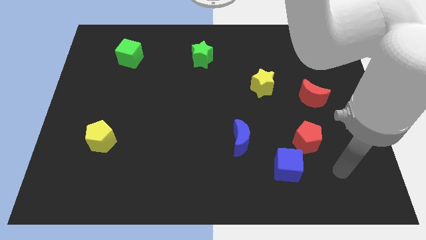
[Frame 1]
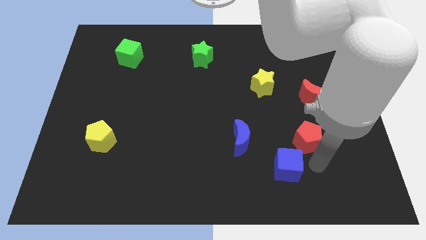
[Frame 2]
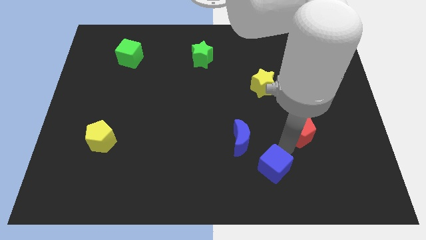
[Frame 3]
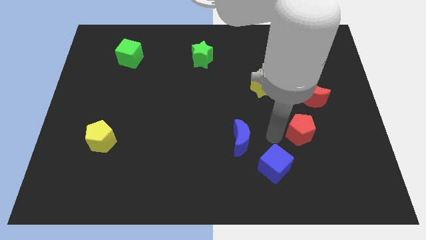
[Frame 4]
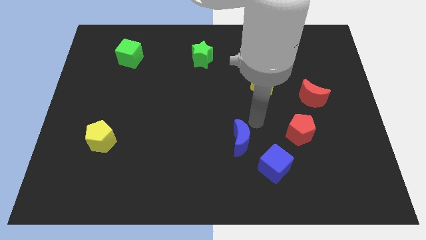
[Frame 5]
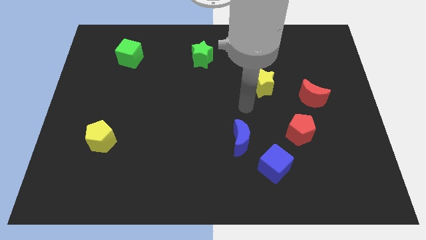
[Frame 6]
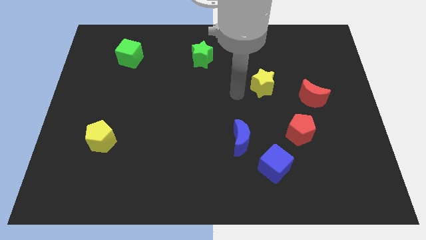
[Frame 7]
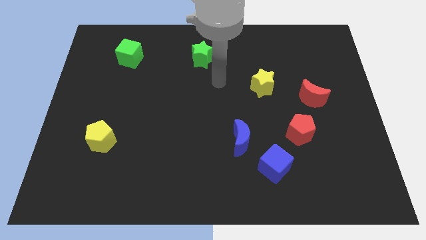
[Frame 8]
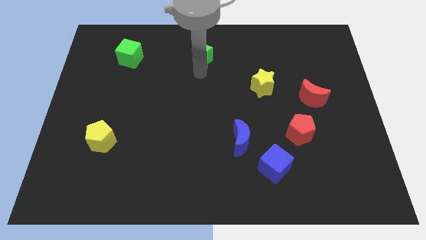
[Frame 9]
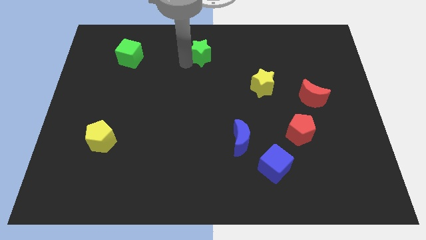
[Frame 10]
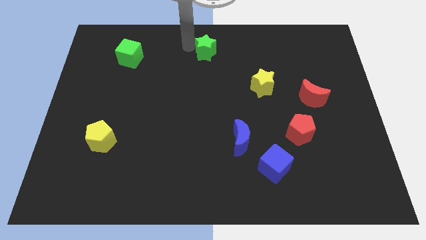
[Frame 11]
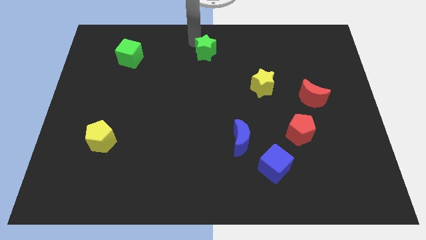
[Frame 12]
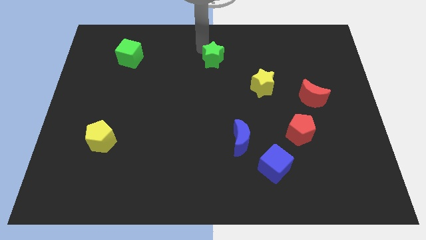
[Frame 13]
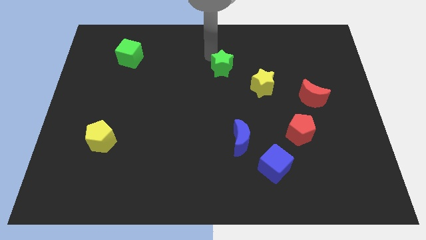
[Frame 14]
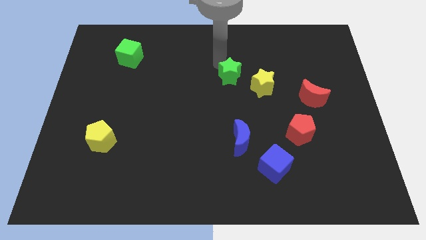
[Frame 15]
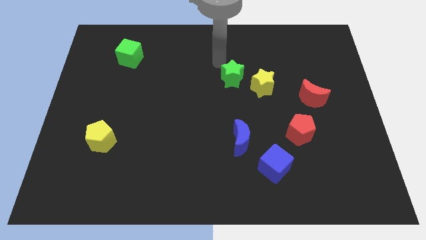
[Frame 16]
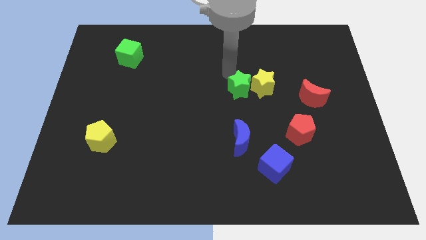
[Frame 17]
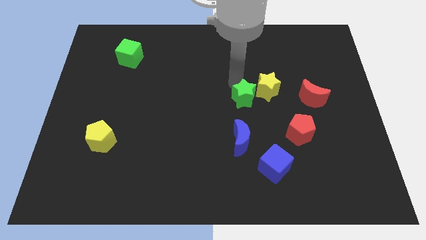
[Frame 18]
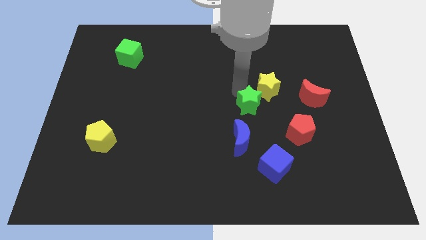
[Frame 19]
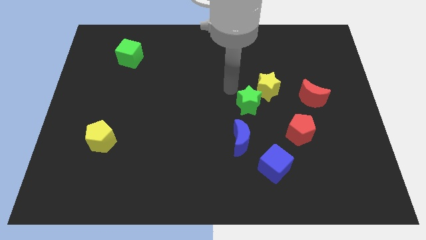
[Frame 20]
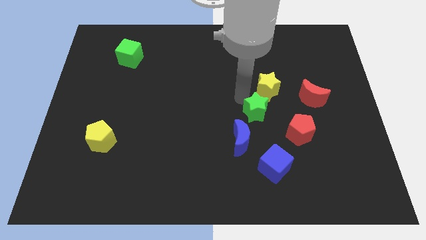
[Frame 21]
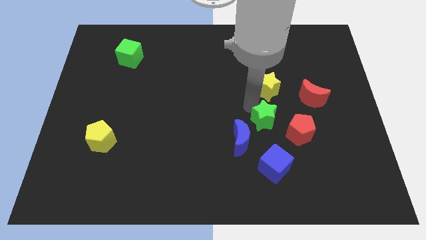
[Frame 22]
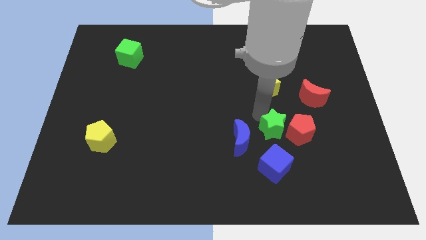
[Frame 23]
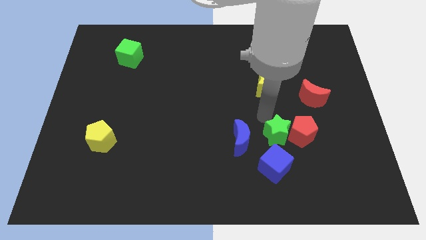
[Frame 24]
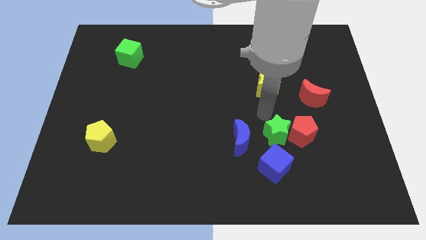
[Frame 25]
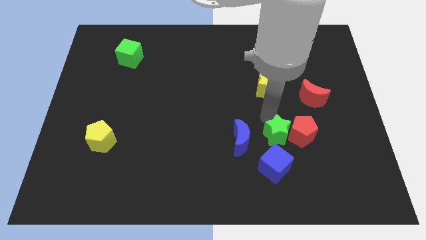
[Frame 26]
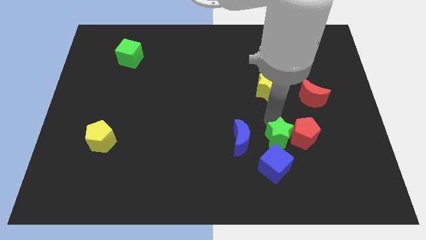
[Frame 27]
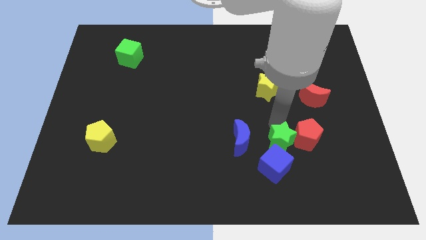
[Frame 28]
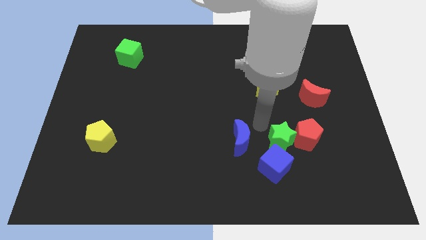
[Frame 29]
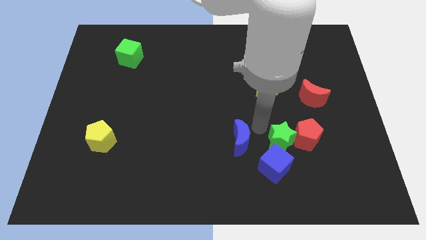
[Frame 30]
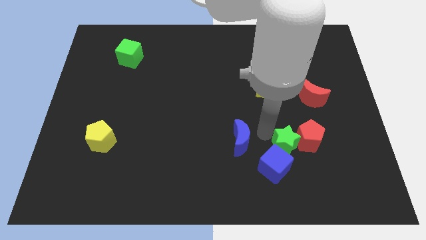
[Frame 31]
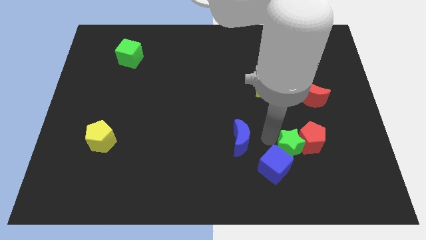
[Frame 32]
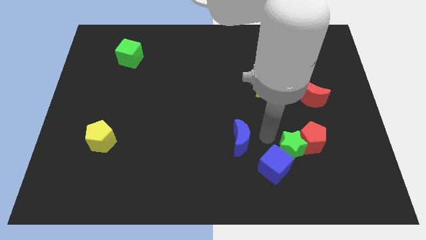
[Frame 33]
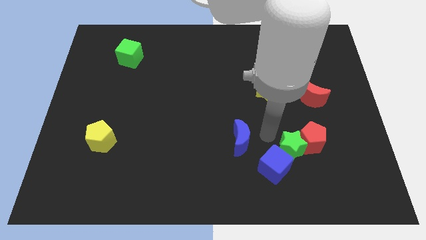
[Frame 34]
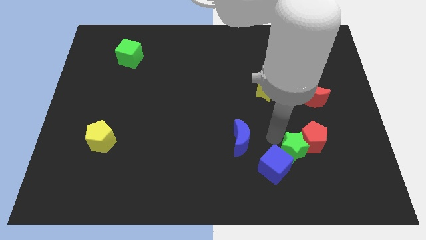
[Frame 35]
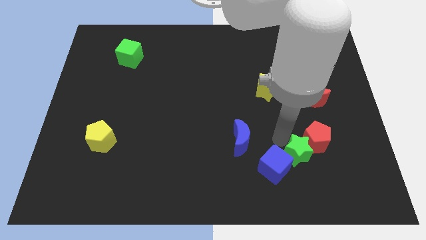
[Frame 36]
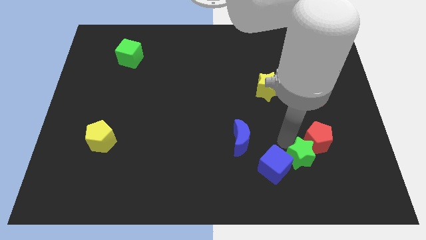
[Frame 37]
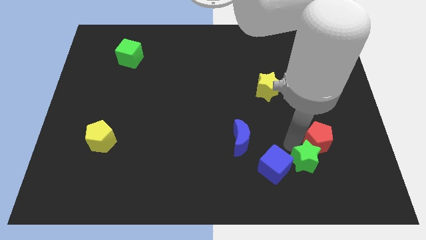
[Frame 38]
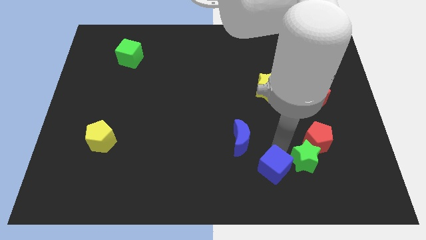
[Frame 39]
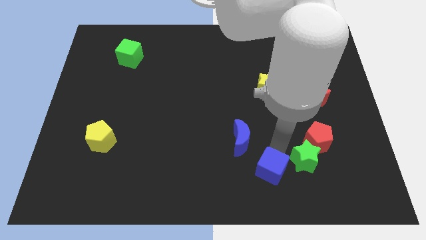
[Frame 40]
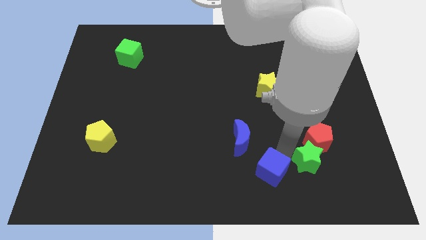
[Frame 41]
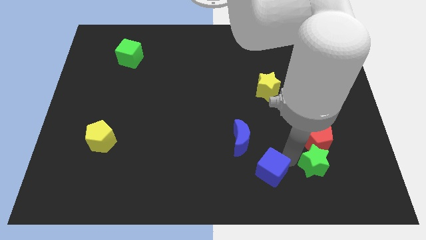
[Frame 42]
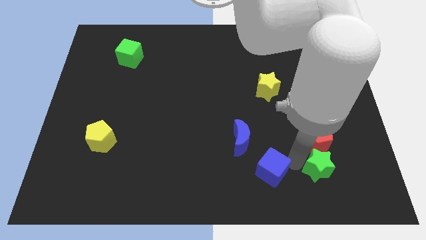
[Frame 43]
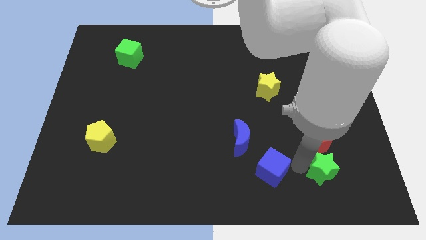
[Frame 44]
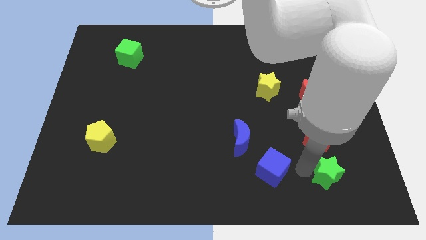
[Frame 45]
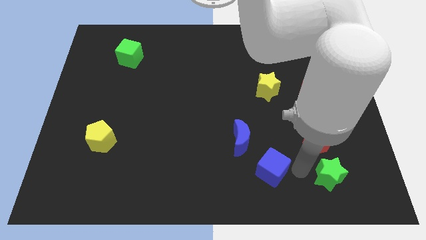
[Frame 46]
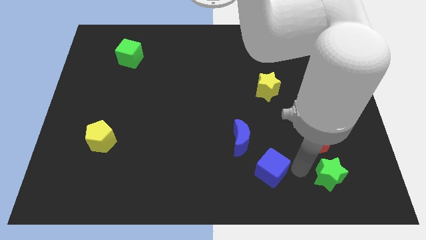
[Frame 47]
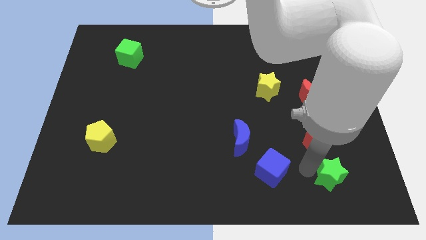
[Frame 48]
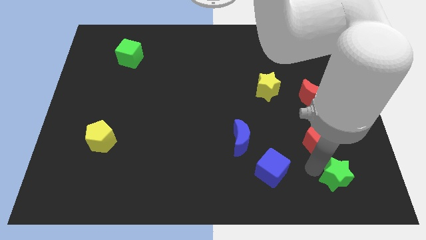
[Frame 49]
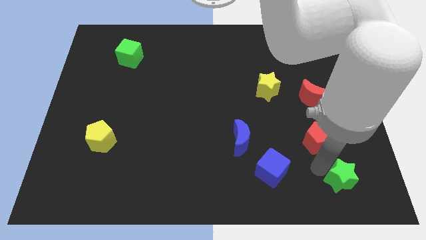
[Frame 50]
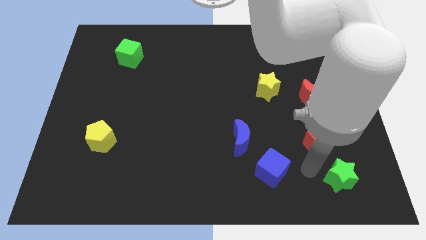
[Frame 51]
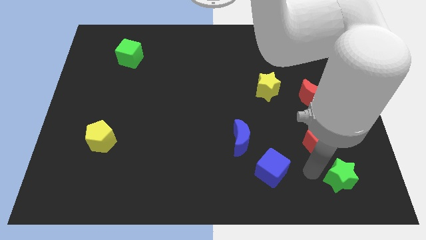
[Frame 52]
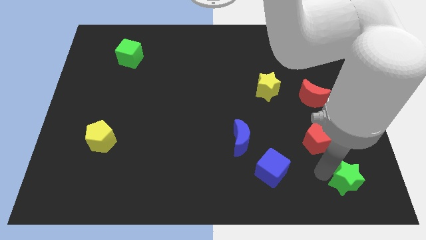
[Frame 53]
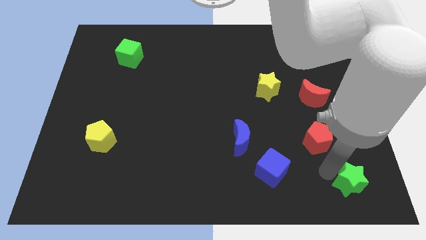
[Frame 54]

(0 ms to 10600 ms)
push the green star to the lower right corner
